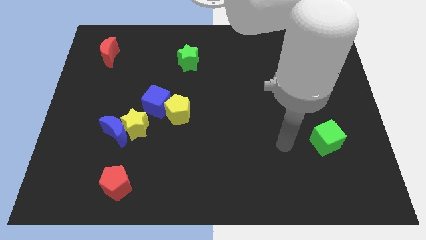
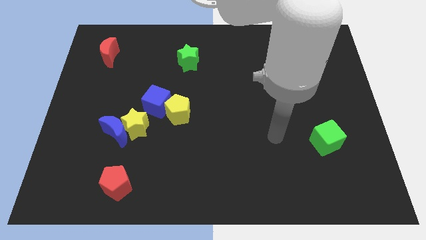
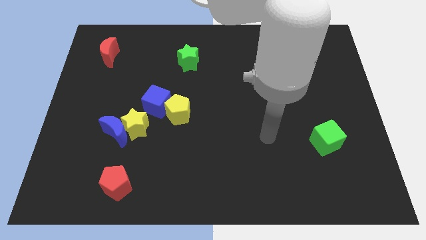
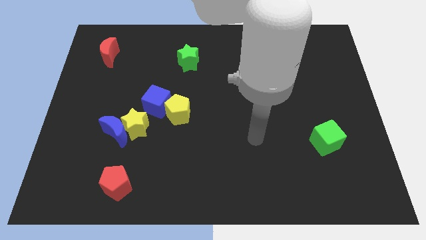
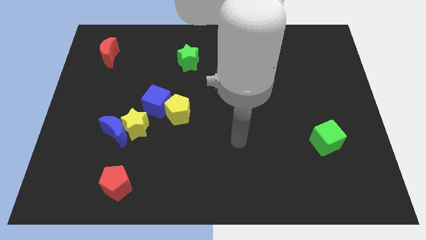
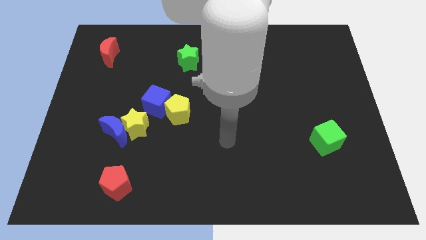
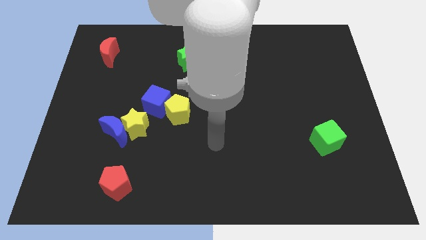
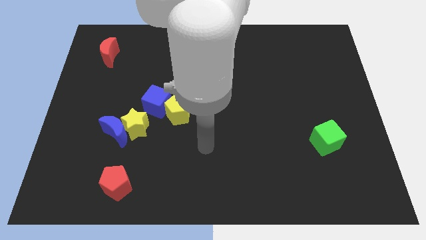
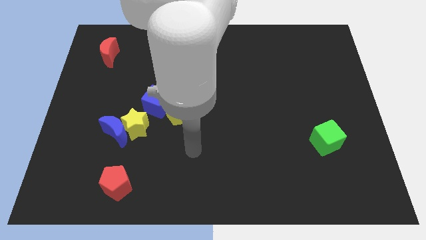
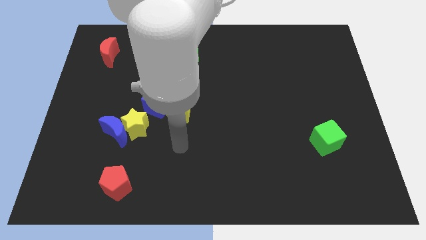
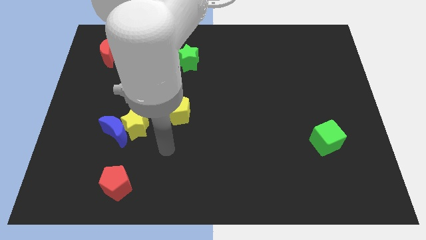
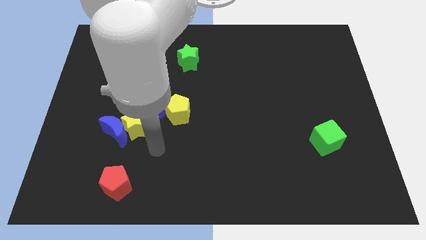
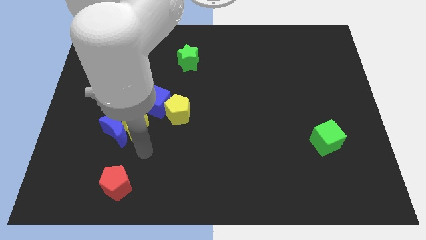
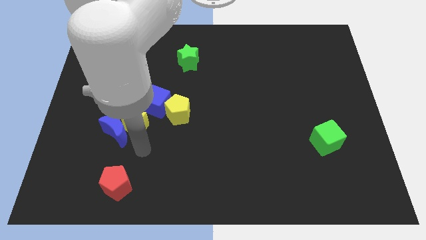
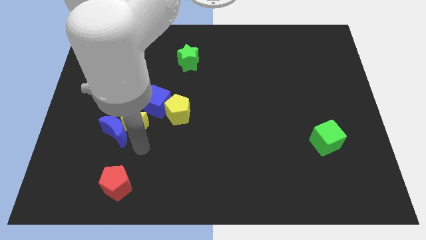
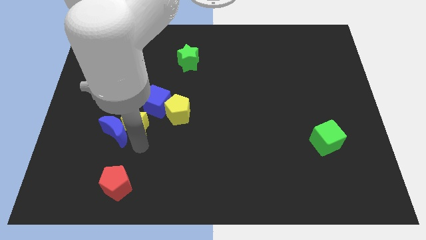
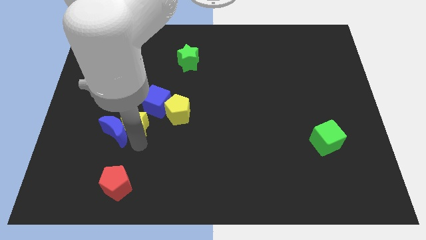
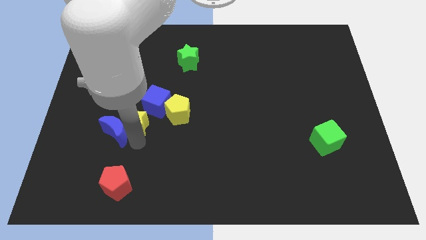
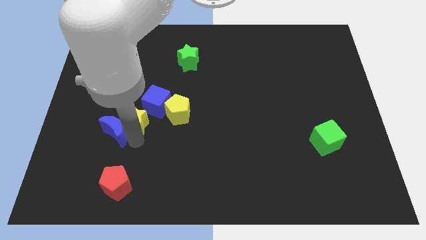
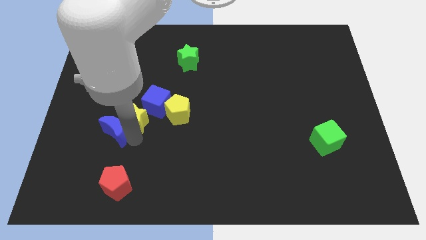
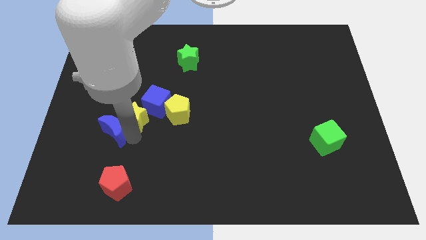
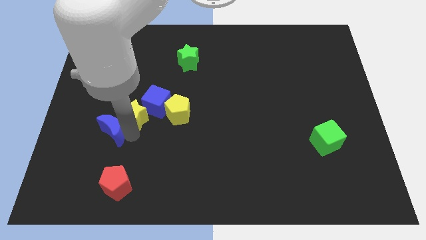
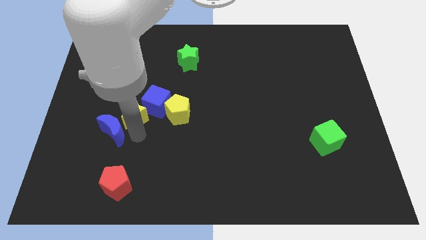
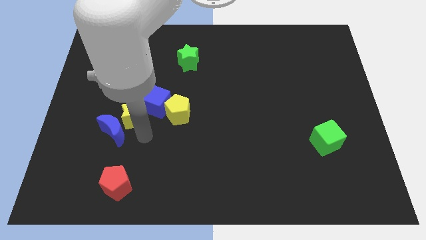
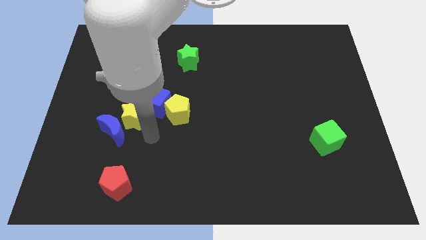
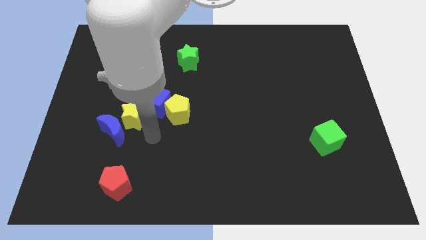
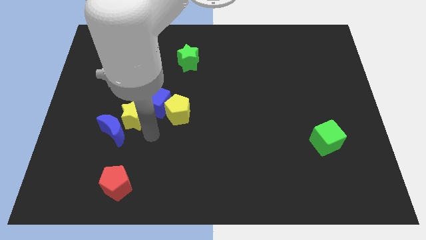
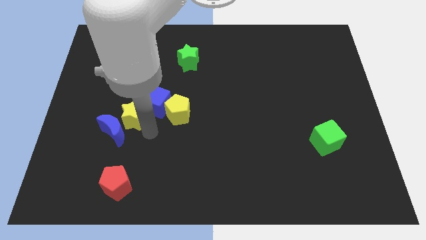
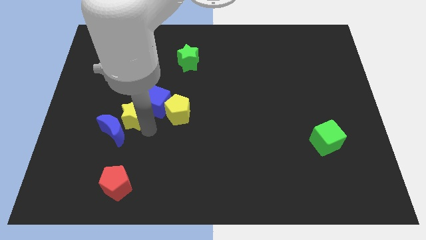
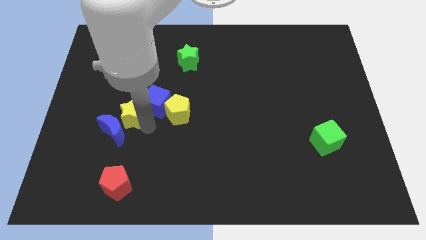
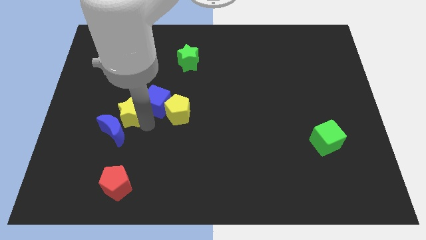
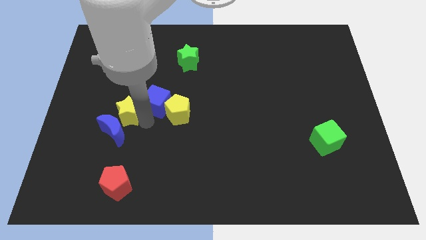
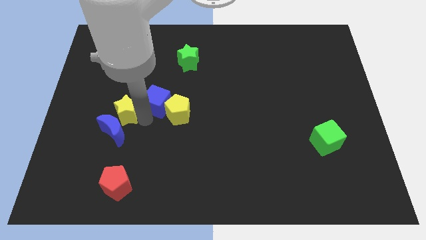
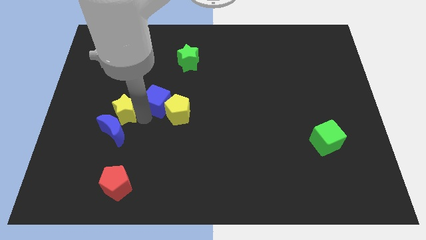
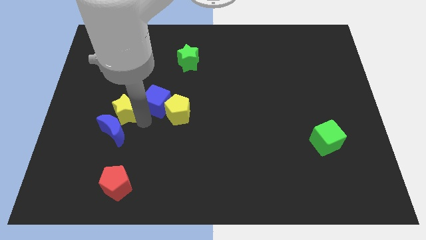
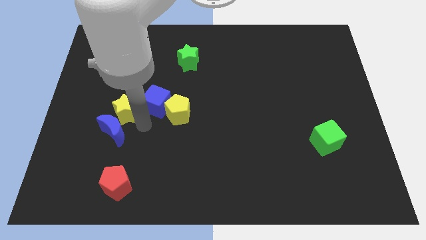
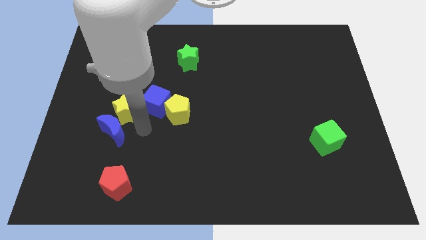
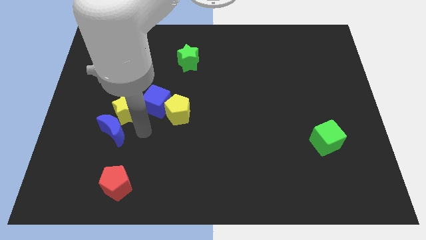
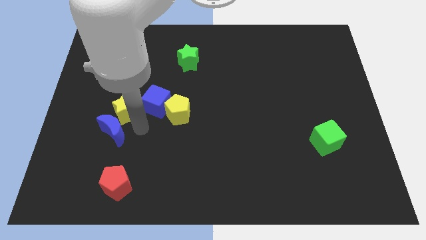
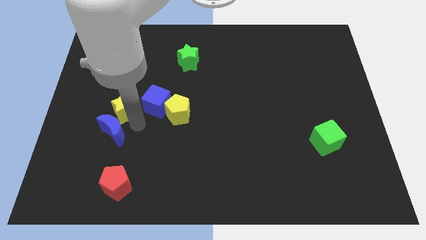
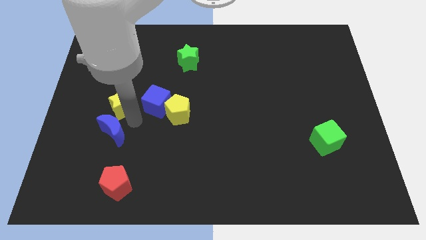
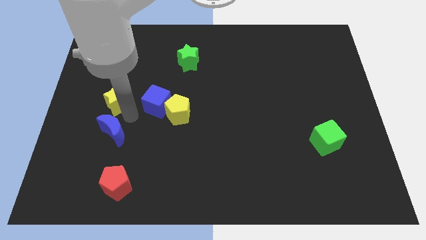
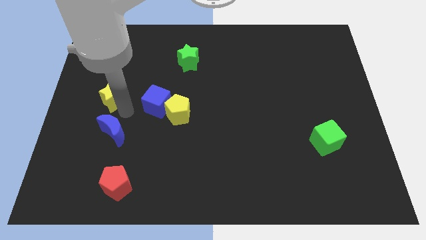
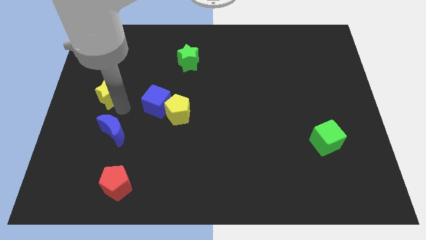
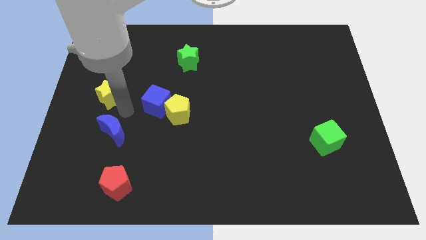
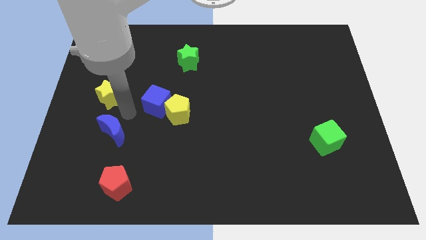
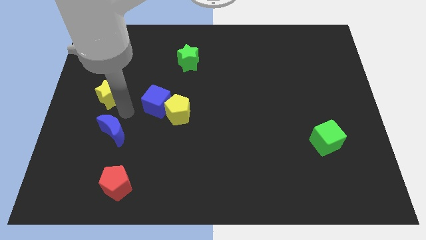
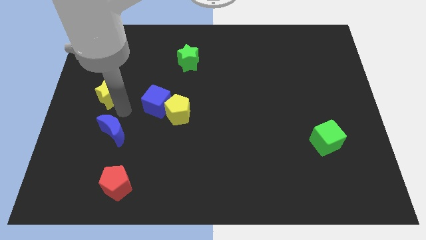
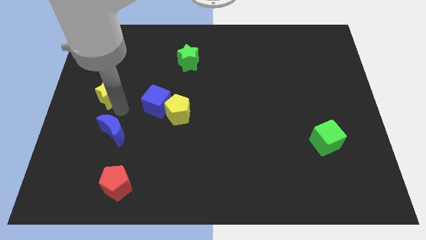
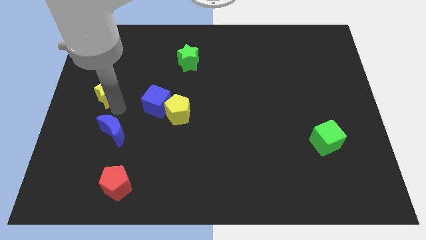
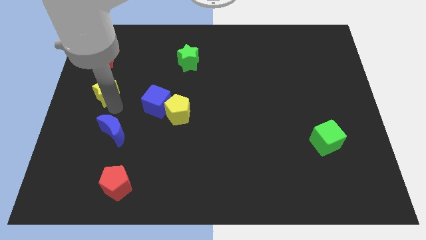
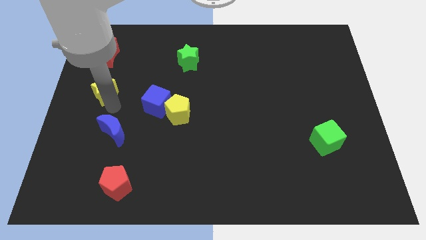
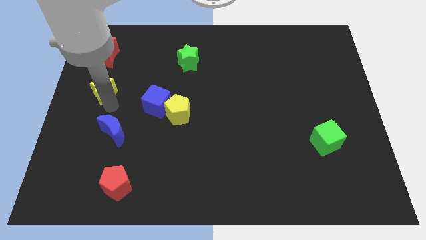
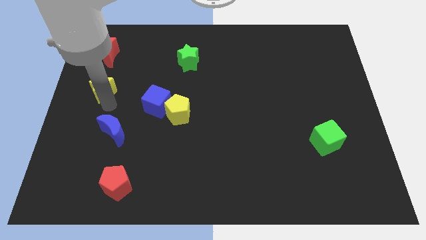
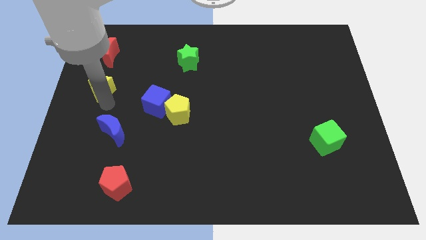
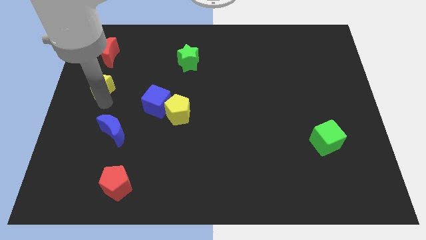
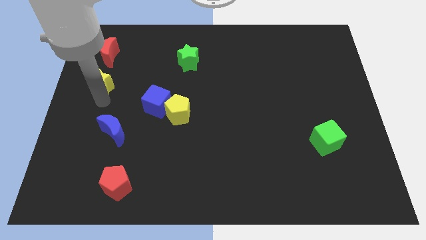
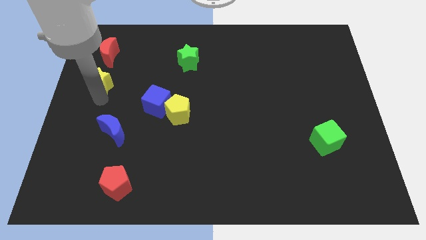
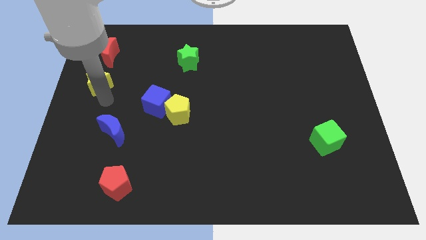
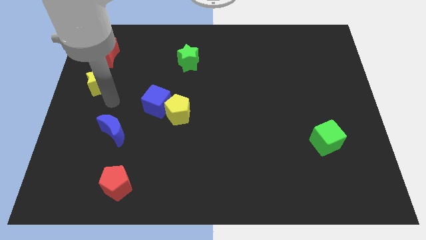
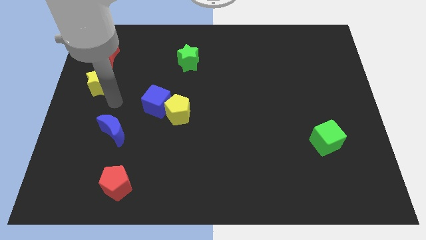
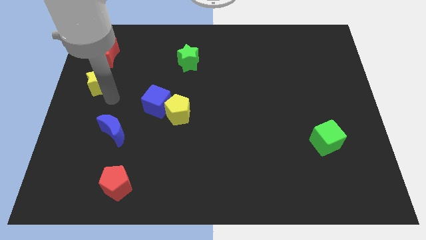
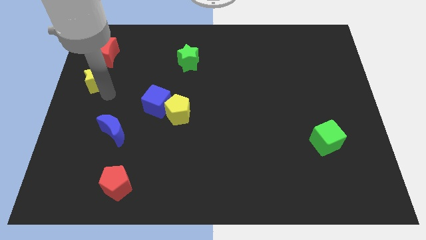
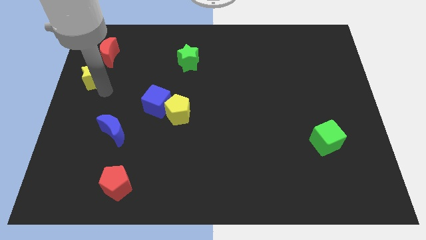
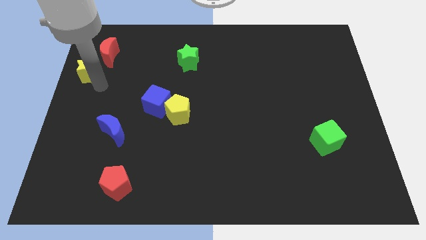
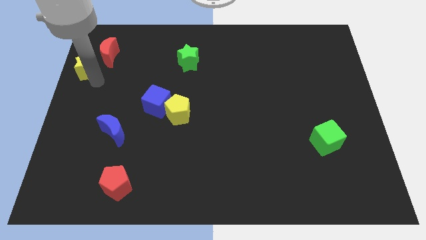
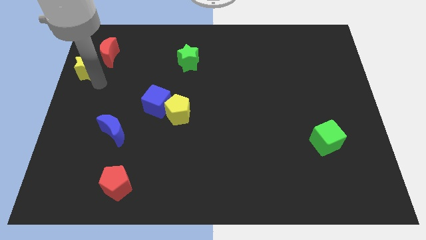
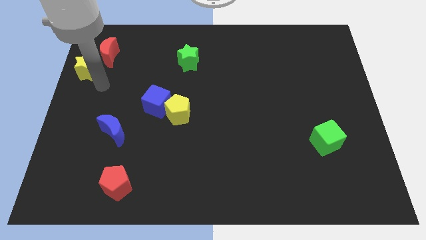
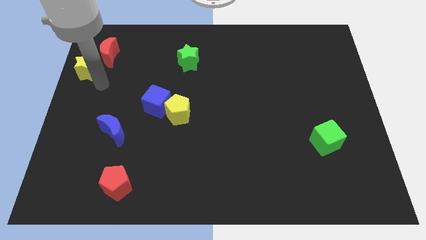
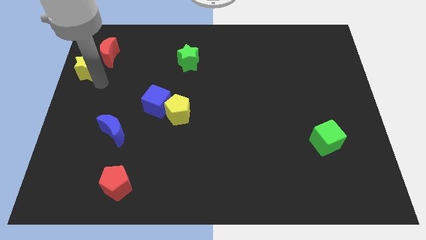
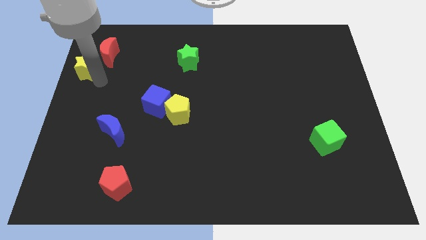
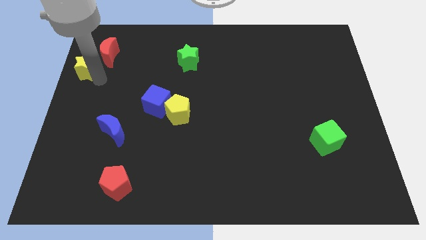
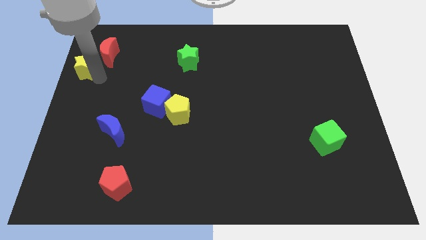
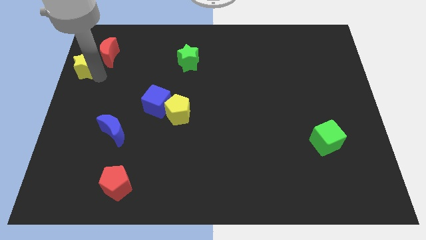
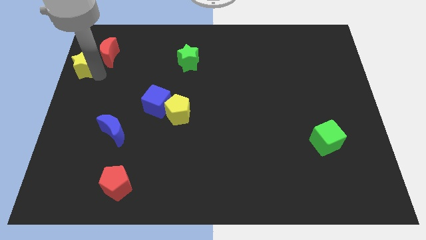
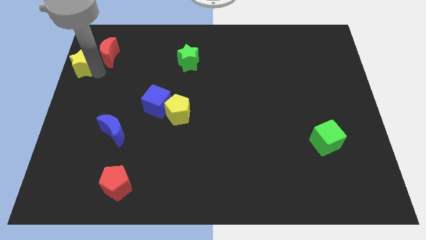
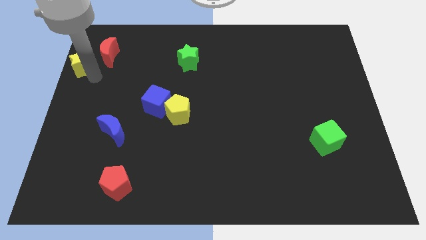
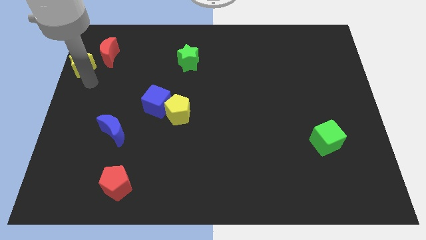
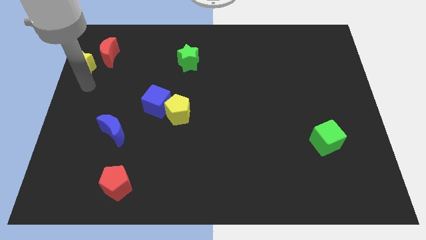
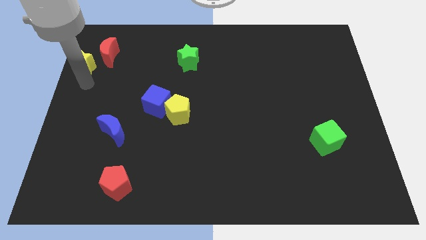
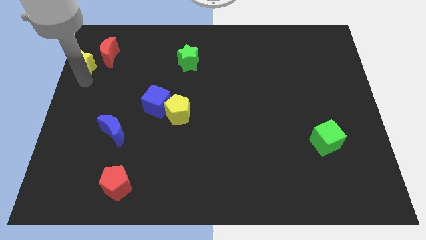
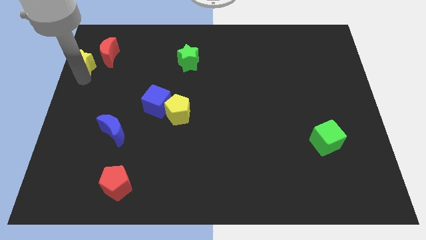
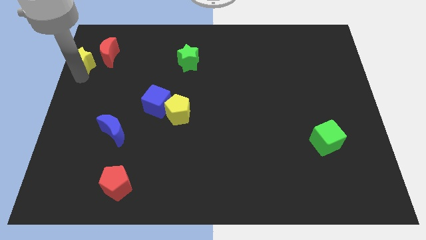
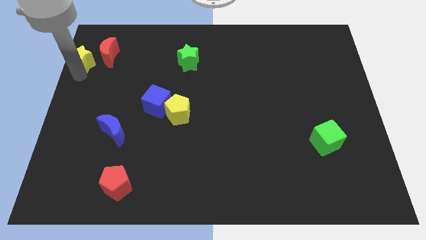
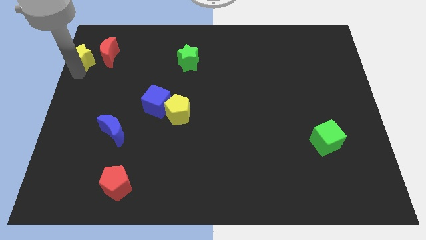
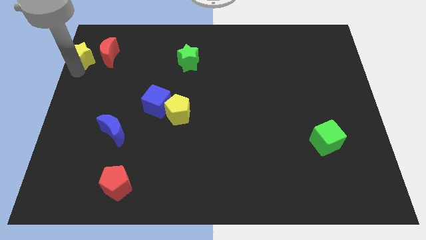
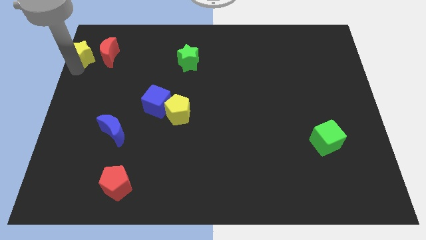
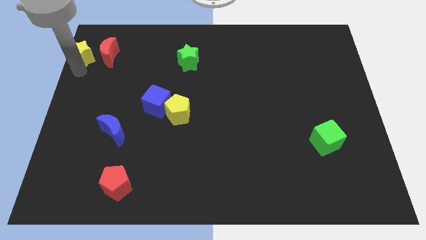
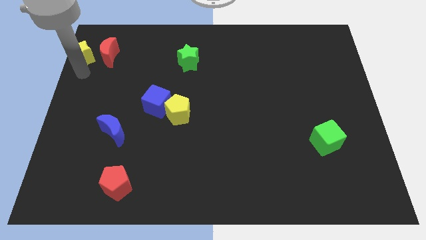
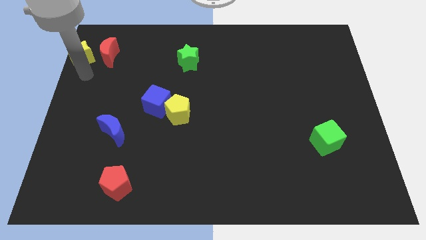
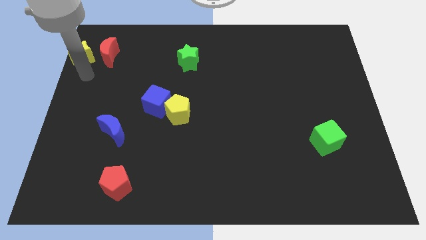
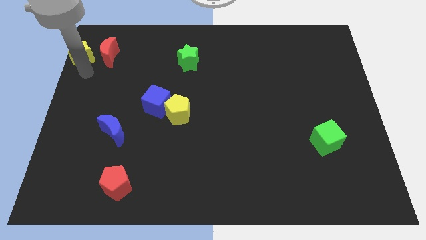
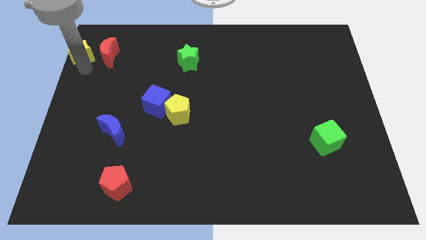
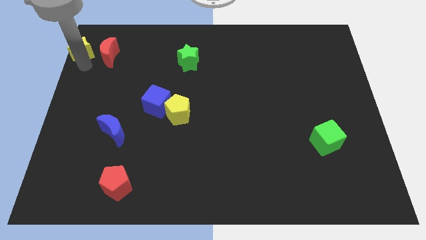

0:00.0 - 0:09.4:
slide the yellow star to the upper left corner
